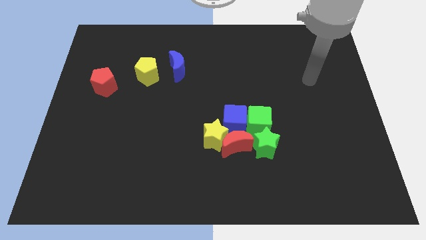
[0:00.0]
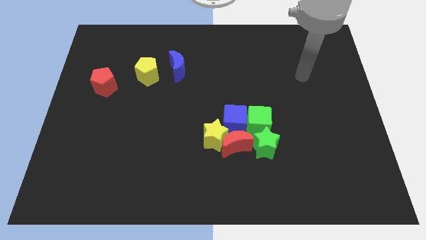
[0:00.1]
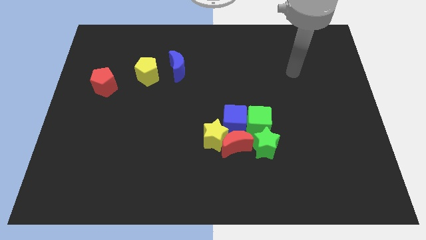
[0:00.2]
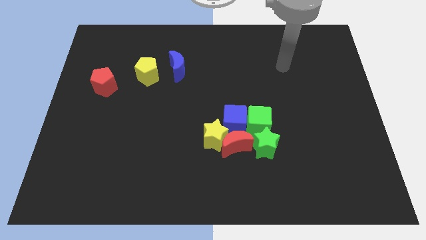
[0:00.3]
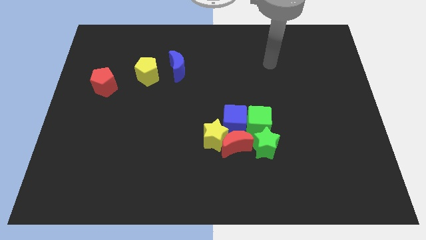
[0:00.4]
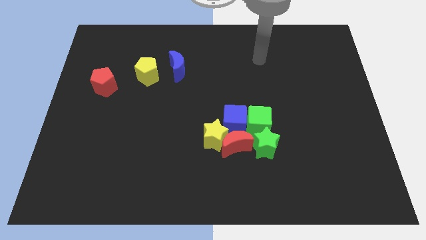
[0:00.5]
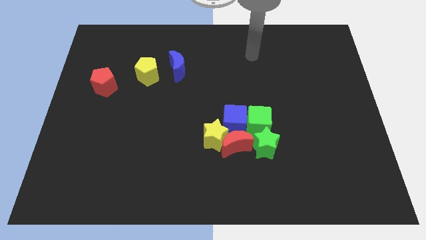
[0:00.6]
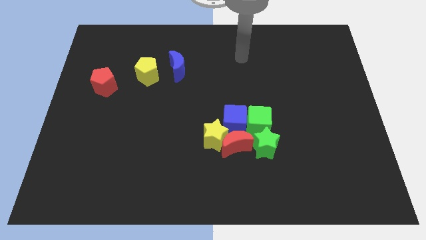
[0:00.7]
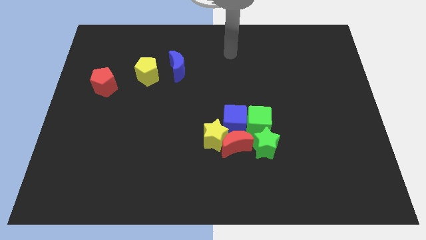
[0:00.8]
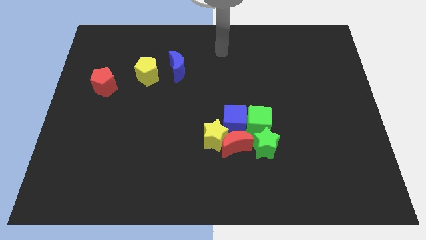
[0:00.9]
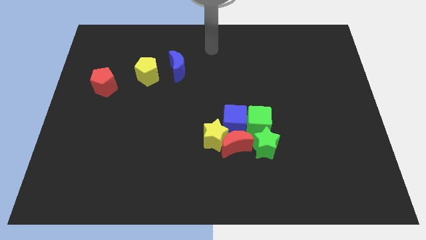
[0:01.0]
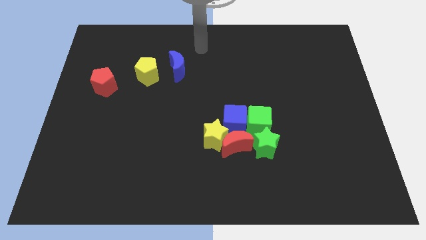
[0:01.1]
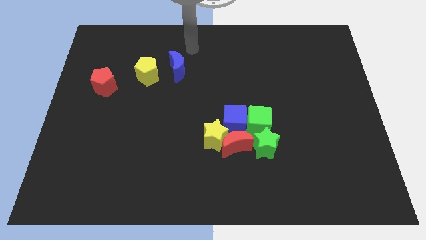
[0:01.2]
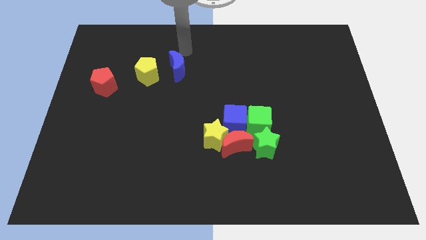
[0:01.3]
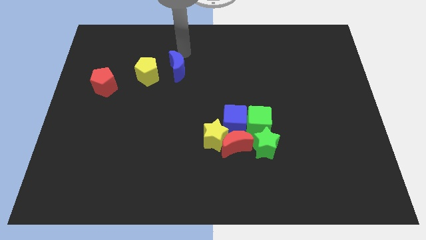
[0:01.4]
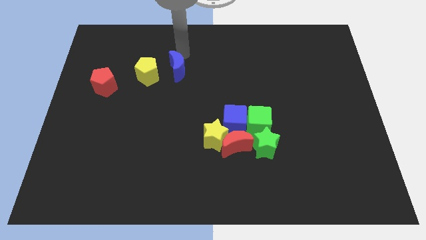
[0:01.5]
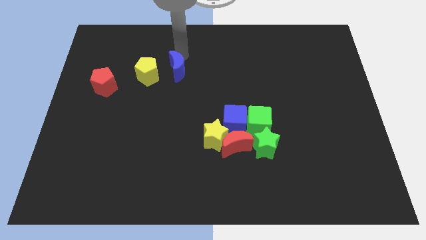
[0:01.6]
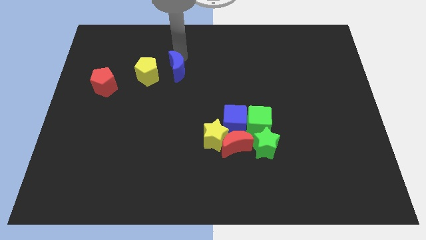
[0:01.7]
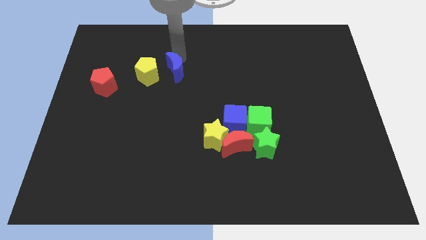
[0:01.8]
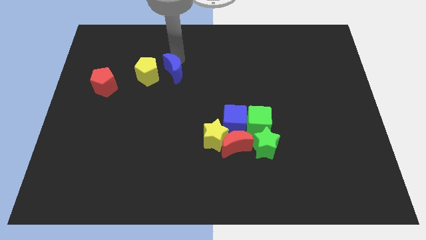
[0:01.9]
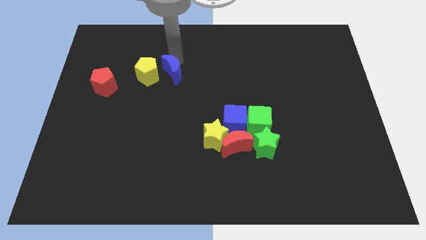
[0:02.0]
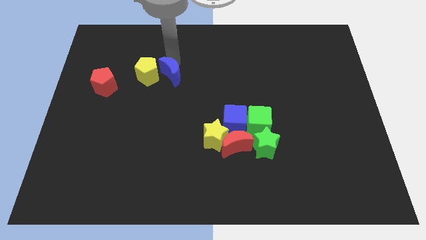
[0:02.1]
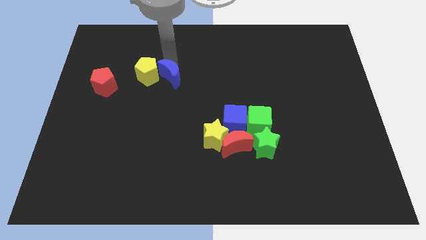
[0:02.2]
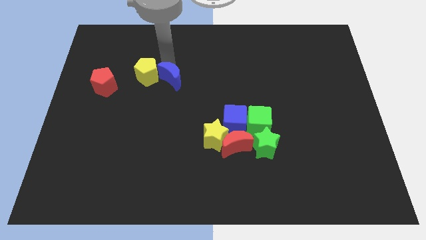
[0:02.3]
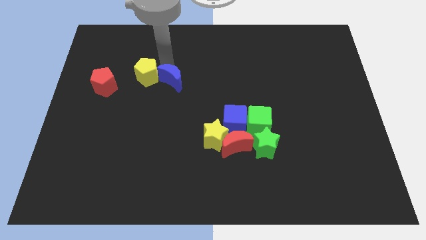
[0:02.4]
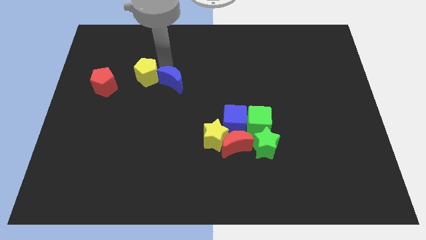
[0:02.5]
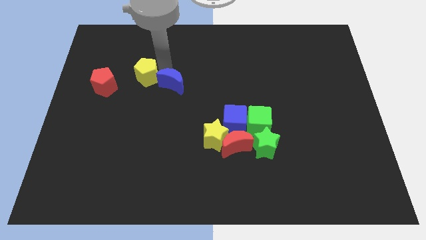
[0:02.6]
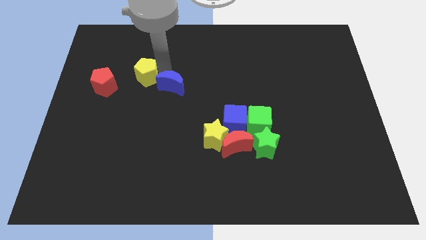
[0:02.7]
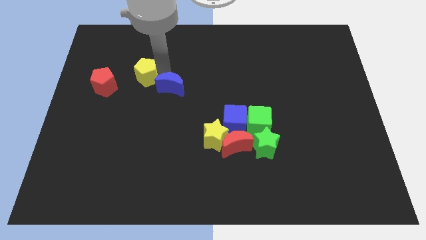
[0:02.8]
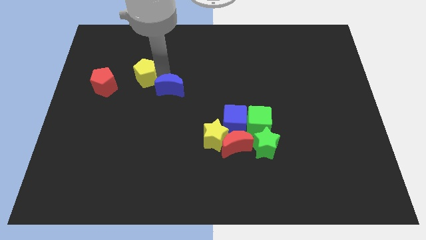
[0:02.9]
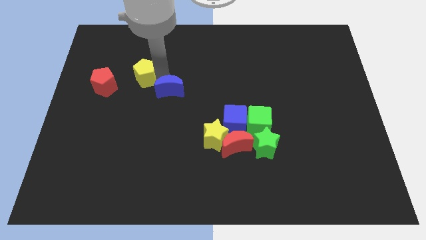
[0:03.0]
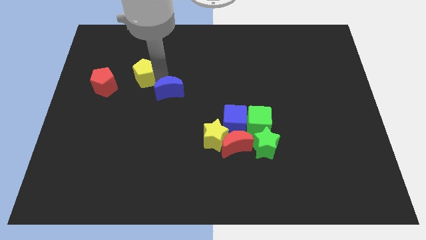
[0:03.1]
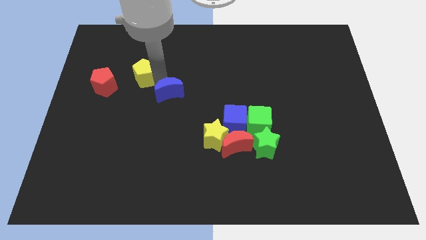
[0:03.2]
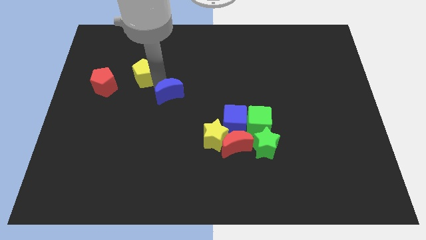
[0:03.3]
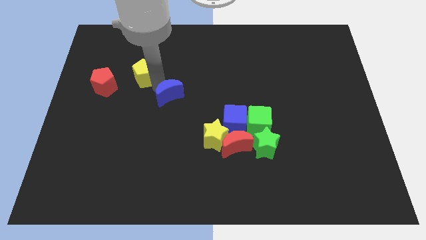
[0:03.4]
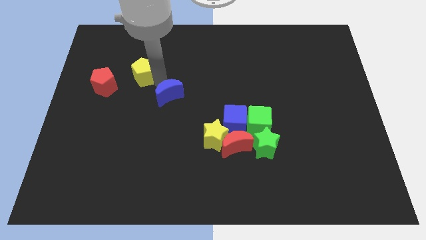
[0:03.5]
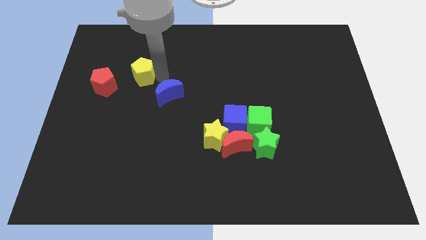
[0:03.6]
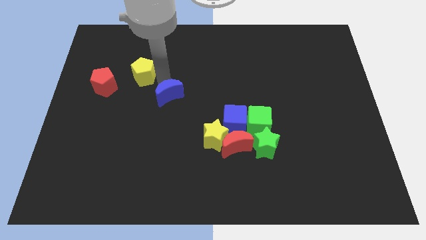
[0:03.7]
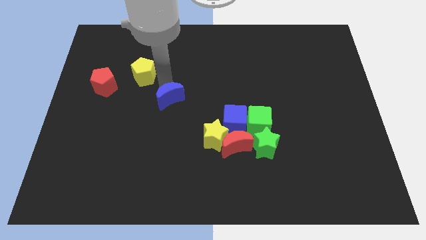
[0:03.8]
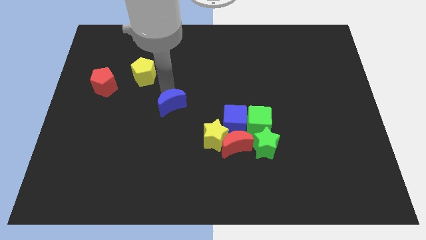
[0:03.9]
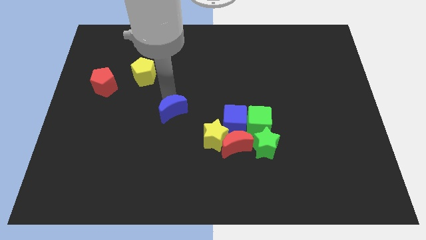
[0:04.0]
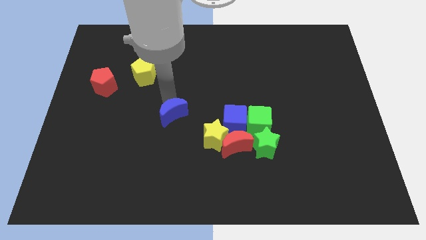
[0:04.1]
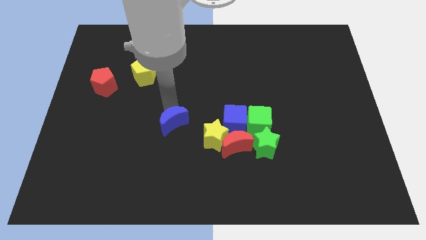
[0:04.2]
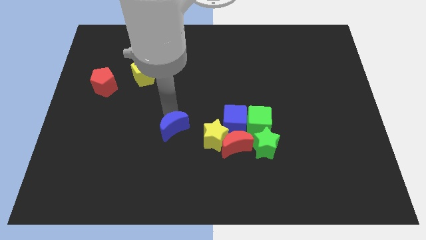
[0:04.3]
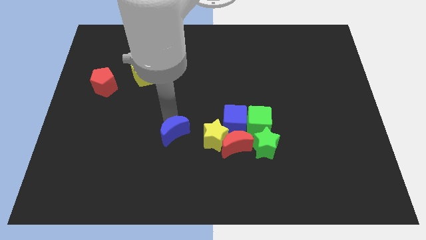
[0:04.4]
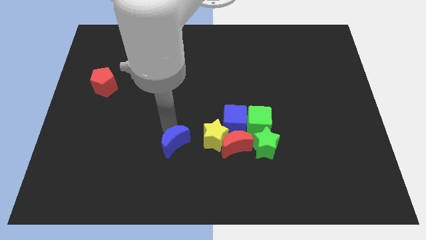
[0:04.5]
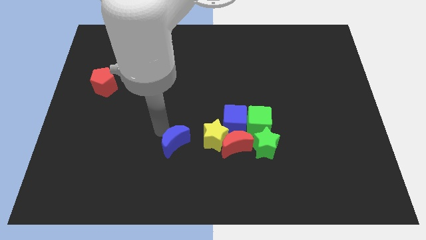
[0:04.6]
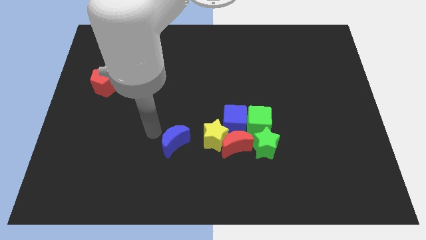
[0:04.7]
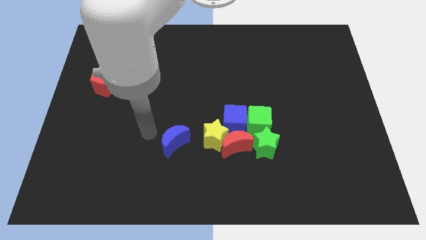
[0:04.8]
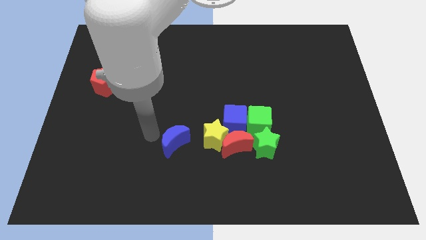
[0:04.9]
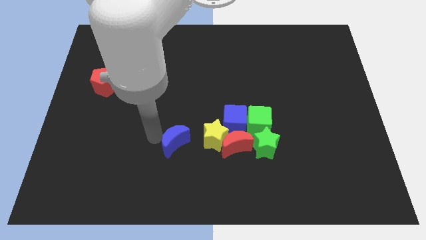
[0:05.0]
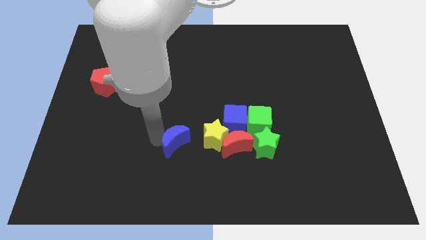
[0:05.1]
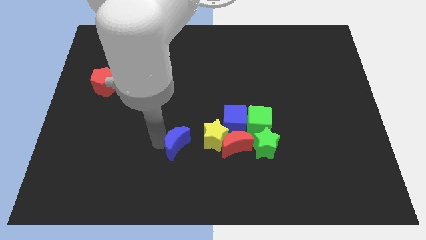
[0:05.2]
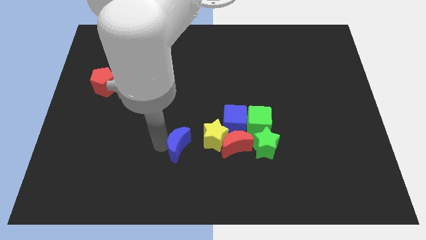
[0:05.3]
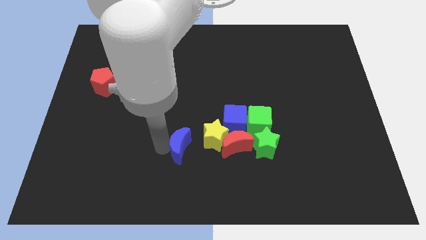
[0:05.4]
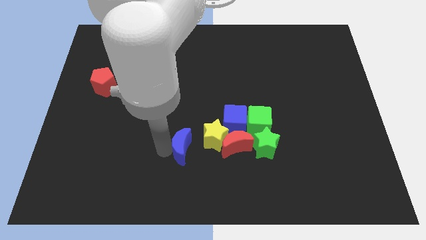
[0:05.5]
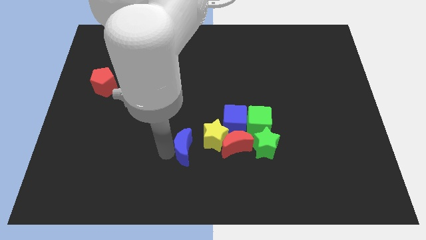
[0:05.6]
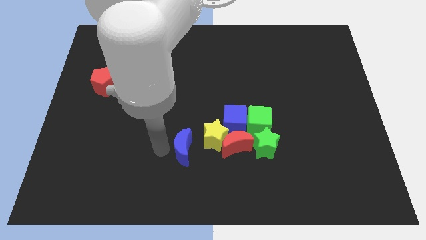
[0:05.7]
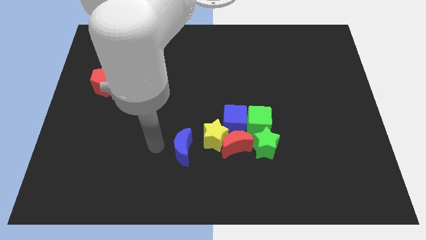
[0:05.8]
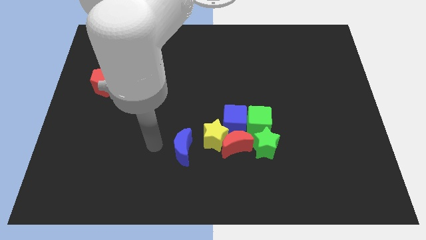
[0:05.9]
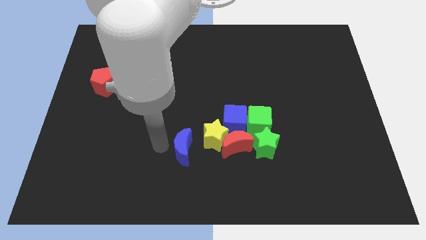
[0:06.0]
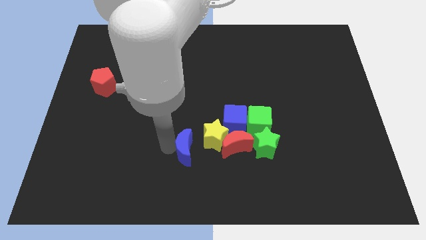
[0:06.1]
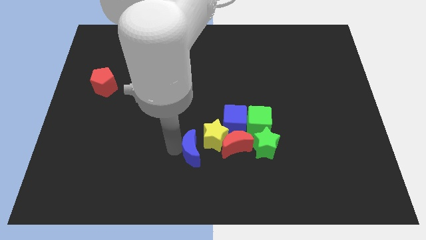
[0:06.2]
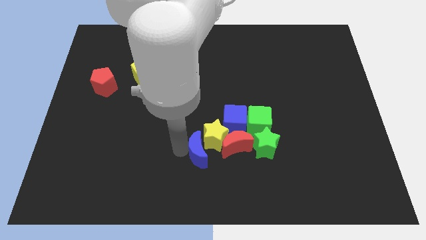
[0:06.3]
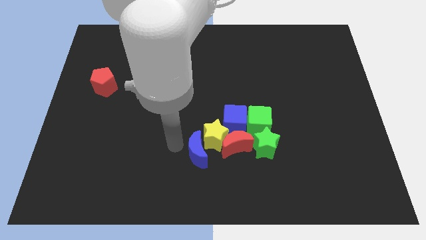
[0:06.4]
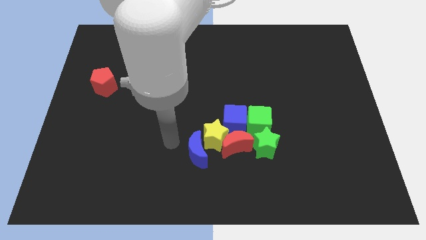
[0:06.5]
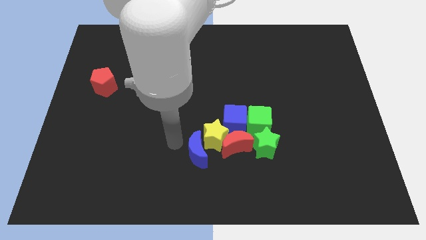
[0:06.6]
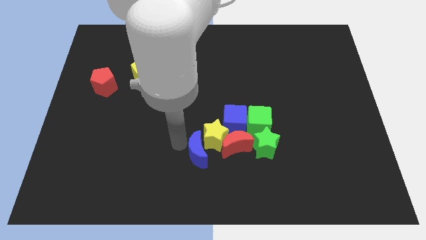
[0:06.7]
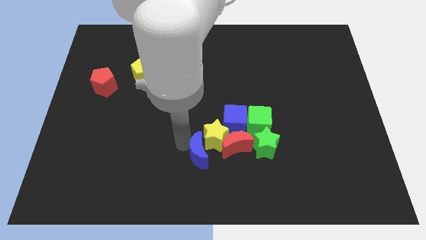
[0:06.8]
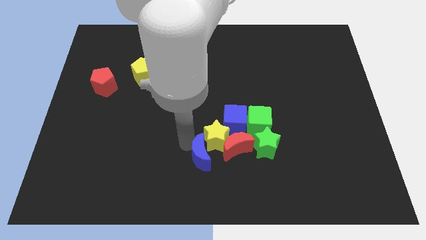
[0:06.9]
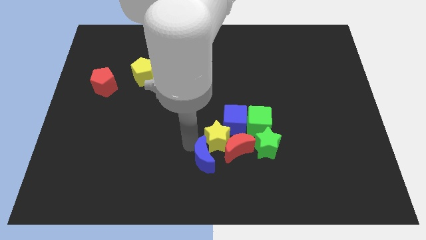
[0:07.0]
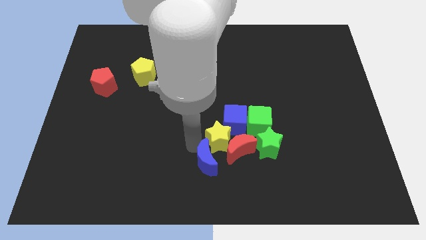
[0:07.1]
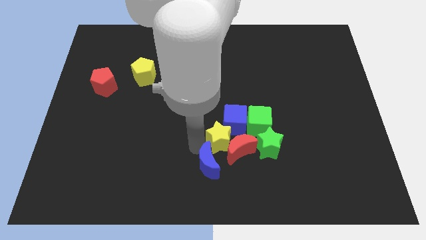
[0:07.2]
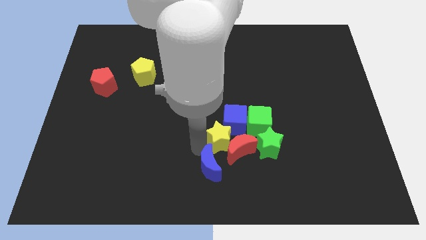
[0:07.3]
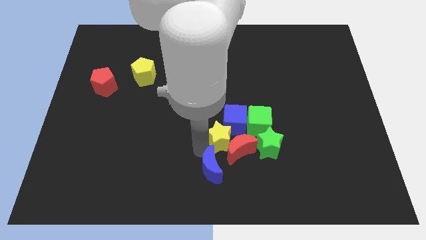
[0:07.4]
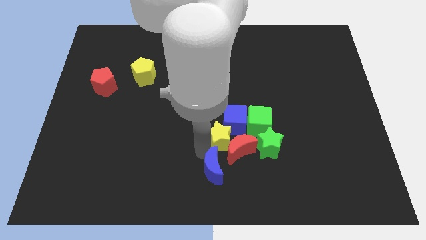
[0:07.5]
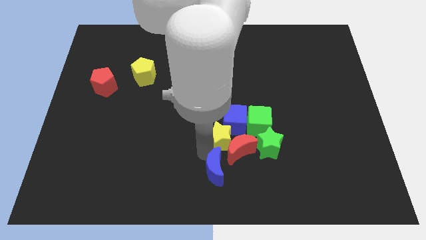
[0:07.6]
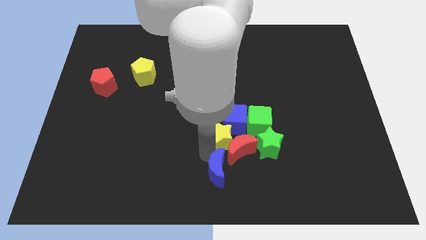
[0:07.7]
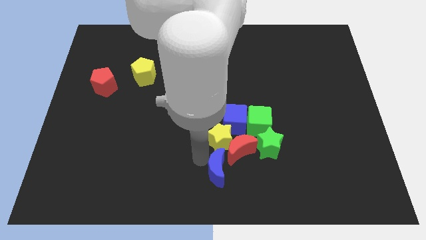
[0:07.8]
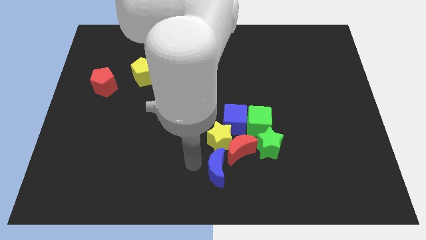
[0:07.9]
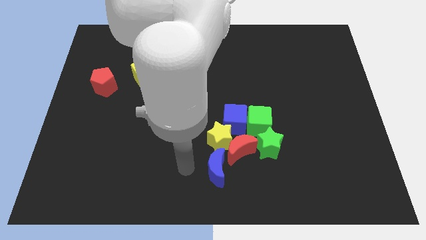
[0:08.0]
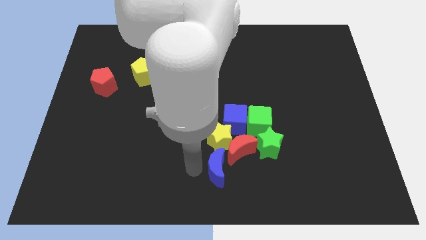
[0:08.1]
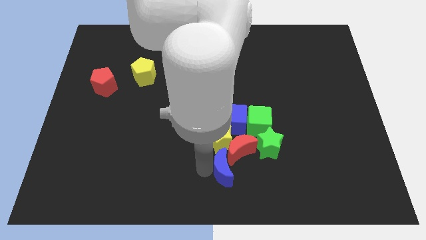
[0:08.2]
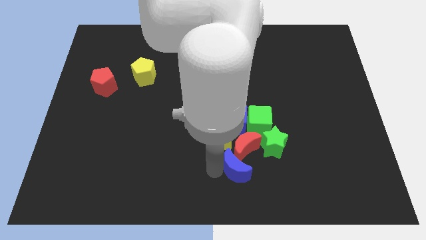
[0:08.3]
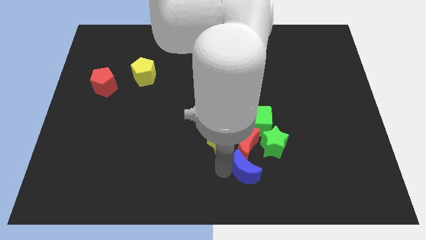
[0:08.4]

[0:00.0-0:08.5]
push the blue moon to the bottom right side of the red moon
